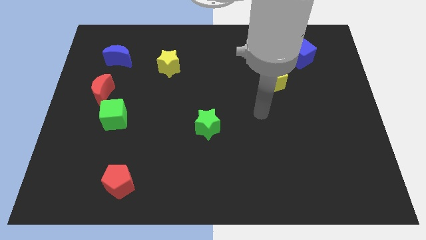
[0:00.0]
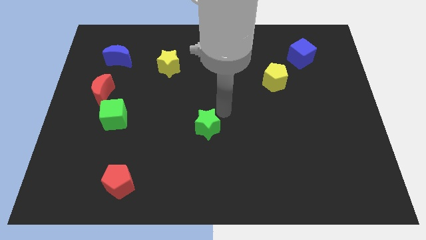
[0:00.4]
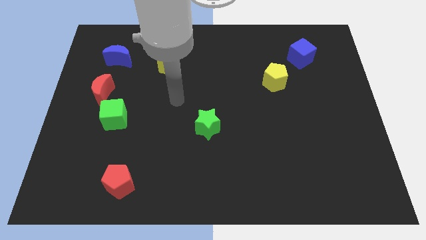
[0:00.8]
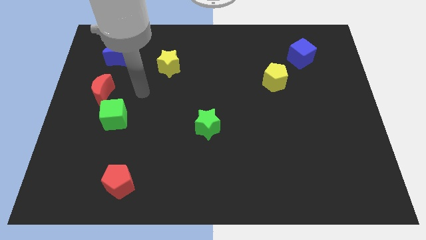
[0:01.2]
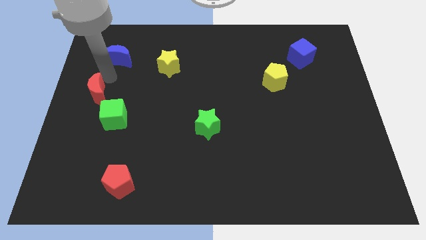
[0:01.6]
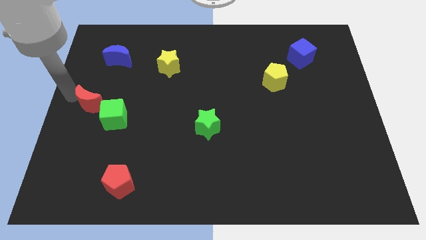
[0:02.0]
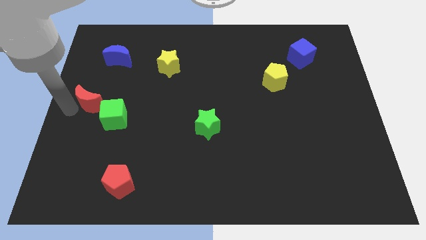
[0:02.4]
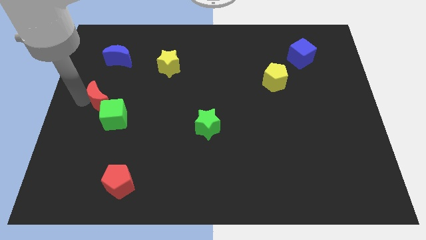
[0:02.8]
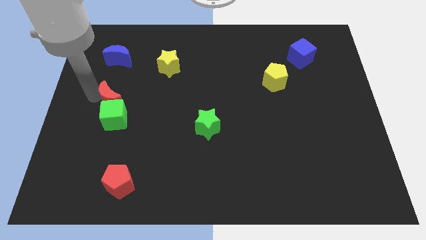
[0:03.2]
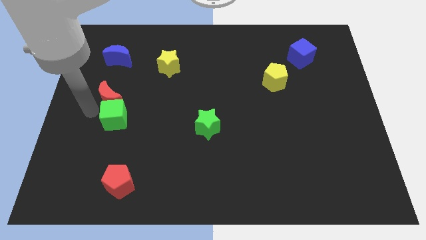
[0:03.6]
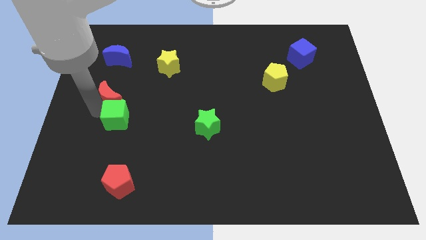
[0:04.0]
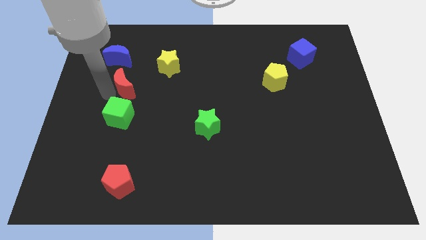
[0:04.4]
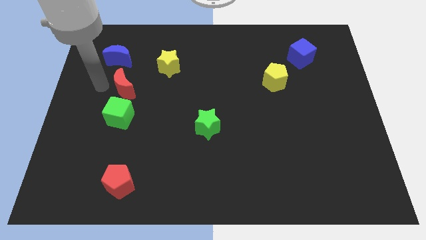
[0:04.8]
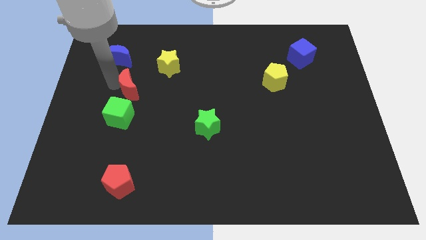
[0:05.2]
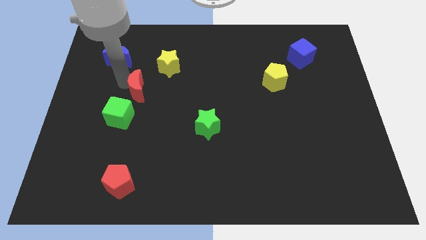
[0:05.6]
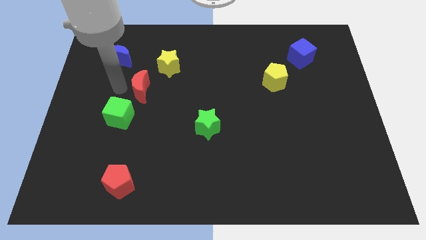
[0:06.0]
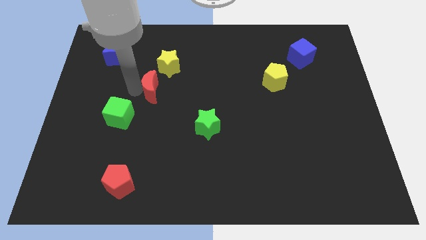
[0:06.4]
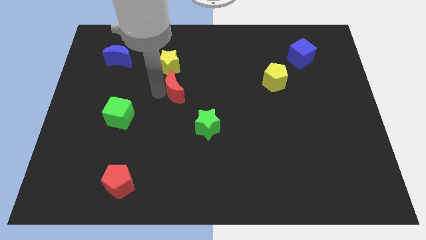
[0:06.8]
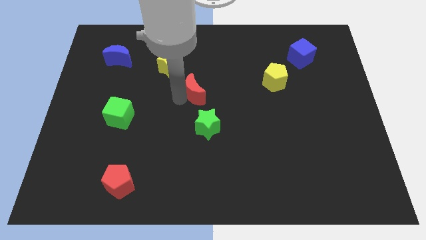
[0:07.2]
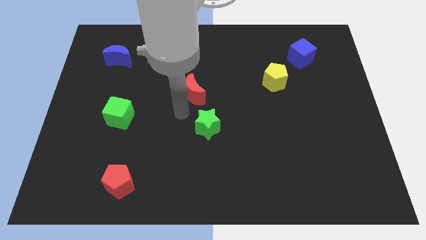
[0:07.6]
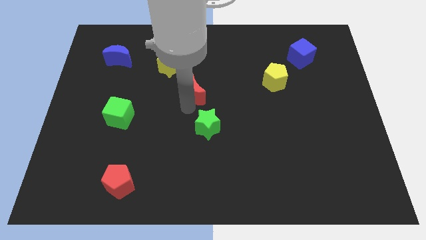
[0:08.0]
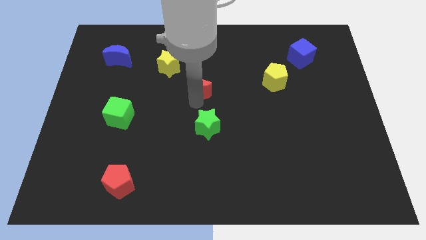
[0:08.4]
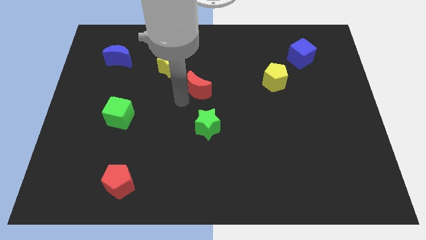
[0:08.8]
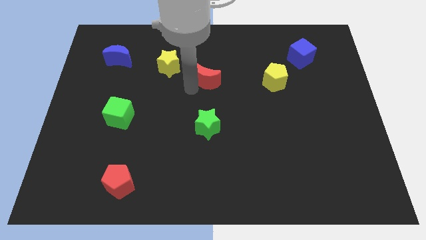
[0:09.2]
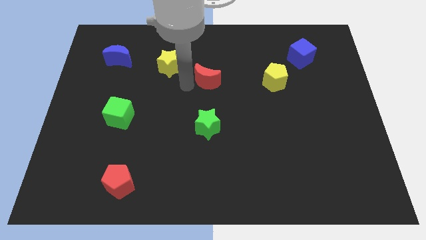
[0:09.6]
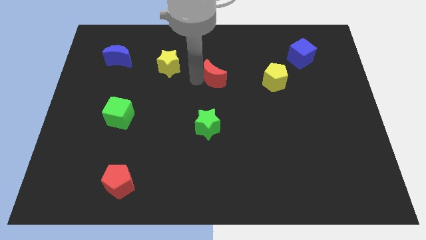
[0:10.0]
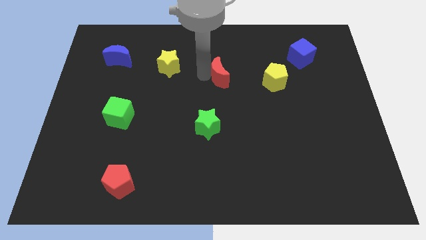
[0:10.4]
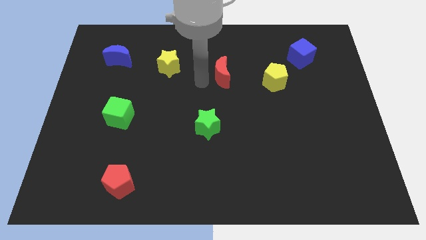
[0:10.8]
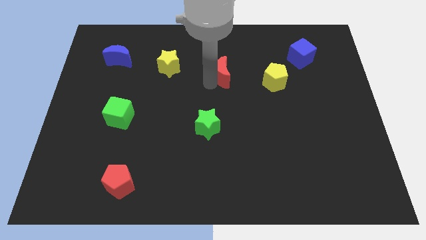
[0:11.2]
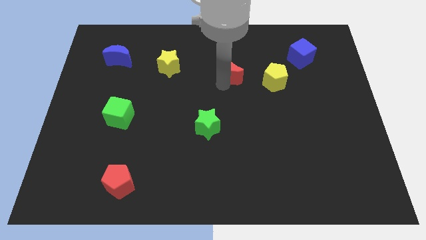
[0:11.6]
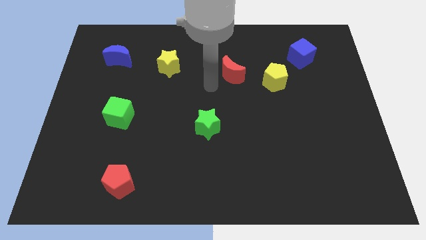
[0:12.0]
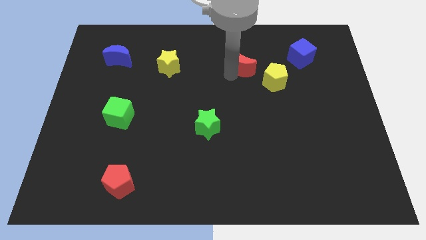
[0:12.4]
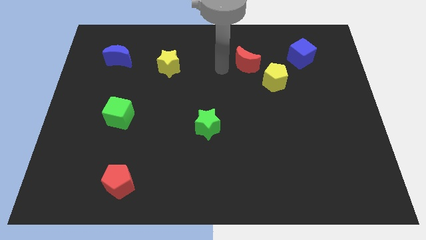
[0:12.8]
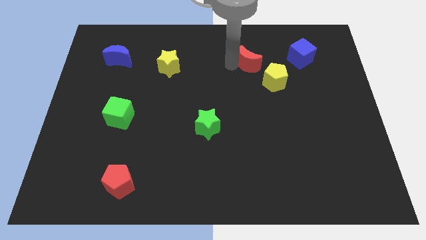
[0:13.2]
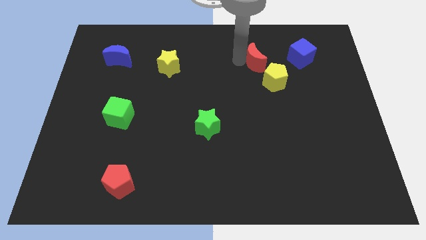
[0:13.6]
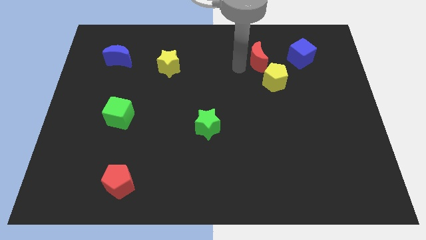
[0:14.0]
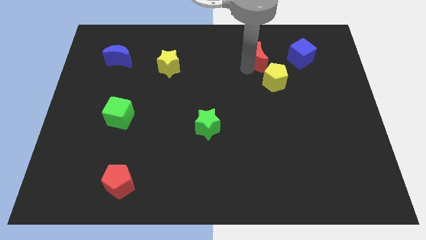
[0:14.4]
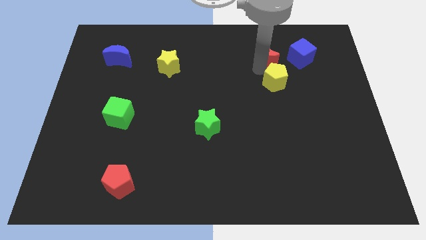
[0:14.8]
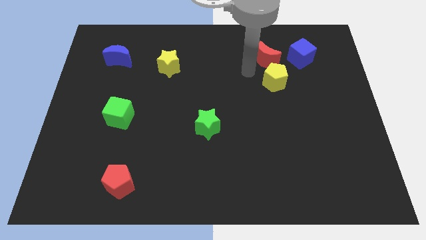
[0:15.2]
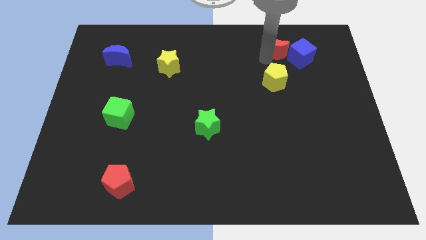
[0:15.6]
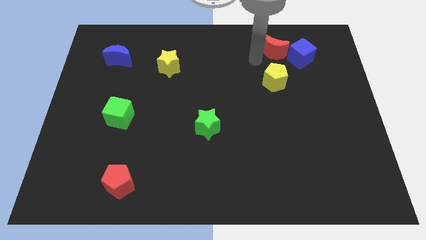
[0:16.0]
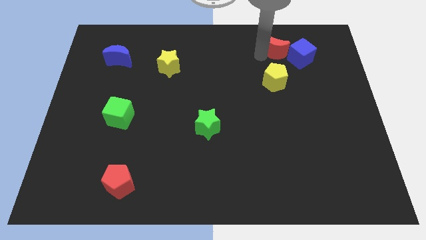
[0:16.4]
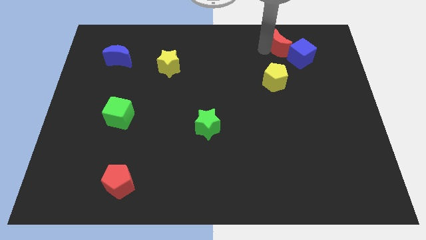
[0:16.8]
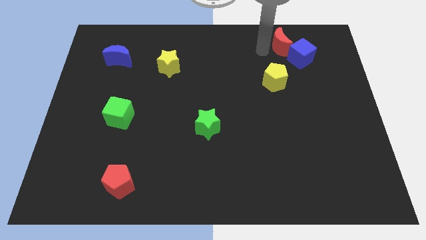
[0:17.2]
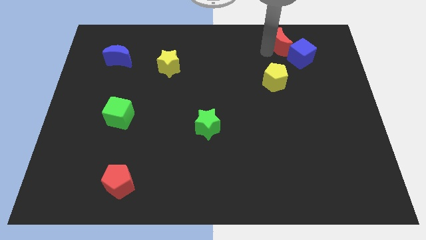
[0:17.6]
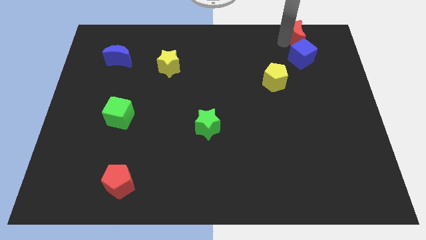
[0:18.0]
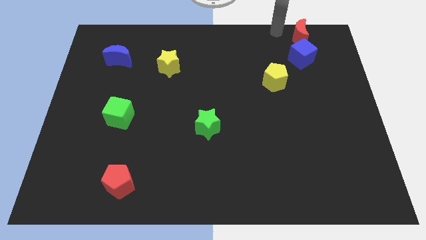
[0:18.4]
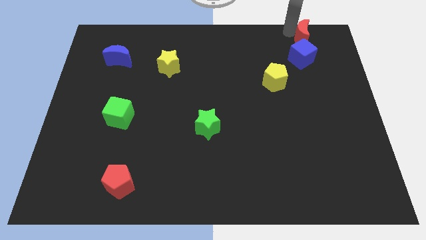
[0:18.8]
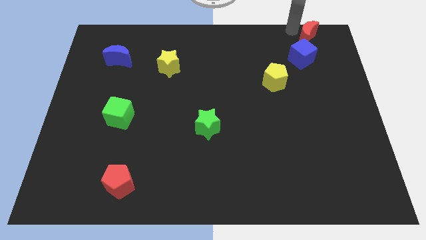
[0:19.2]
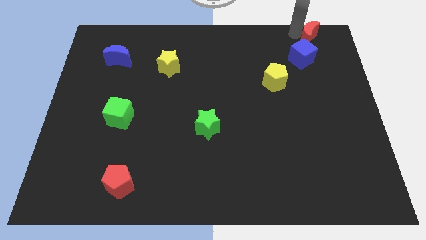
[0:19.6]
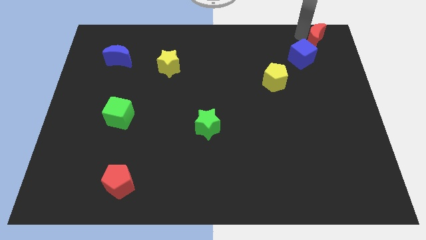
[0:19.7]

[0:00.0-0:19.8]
push the red moon to the top right corner

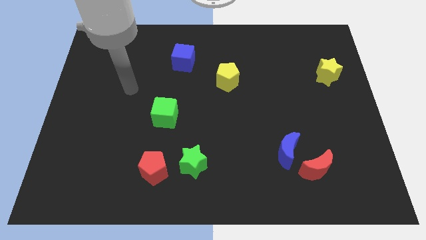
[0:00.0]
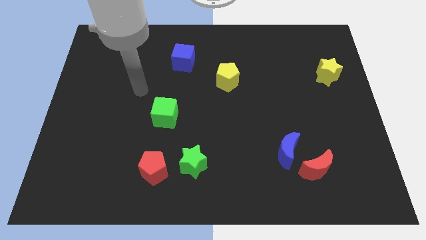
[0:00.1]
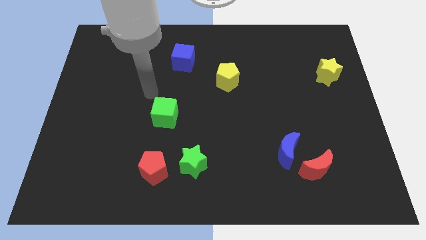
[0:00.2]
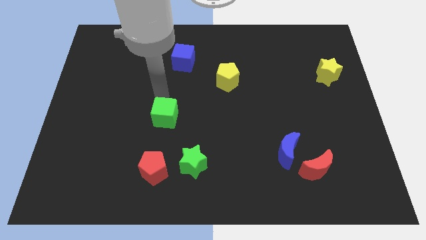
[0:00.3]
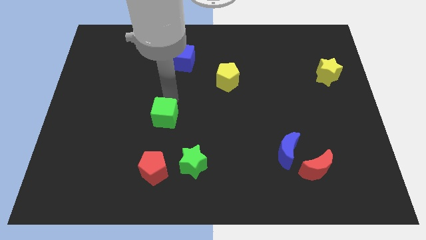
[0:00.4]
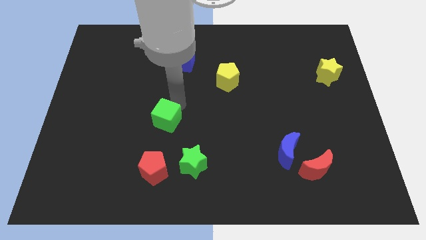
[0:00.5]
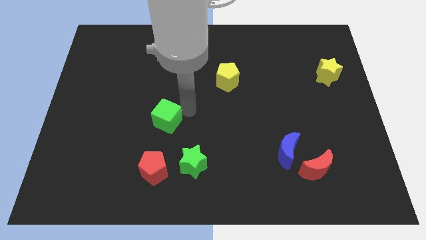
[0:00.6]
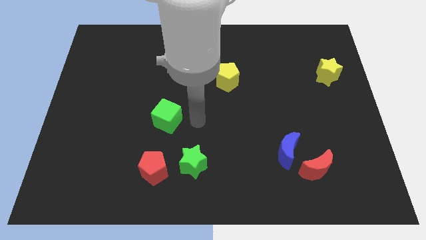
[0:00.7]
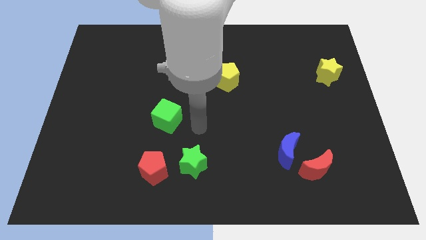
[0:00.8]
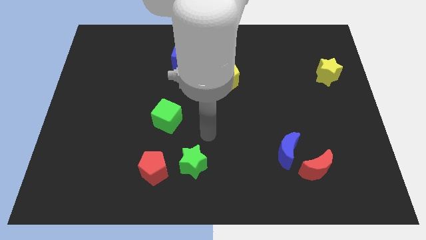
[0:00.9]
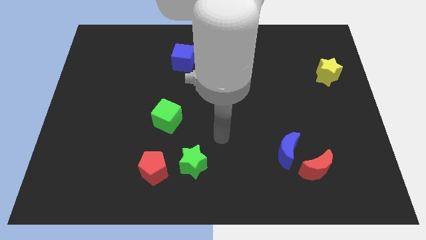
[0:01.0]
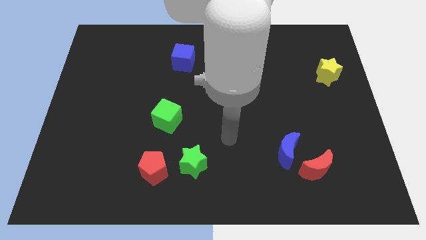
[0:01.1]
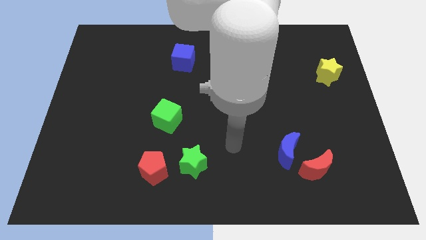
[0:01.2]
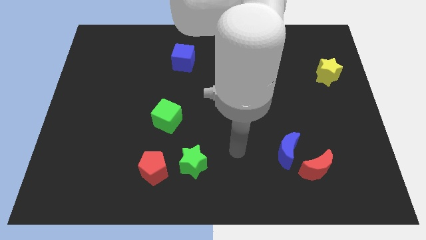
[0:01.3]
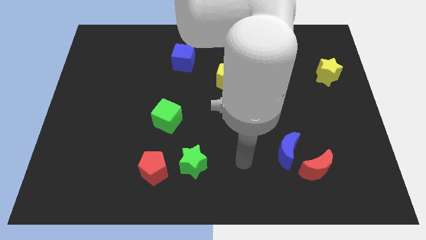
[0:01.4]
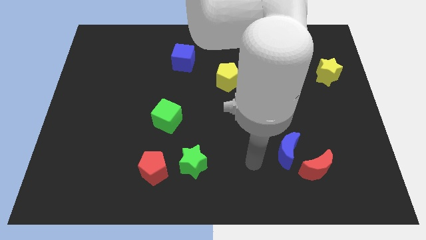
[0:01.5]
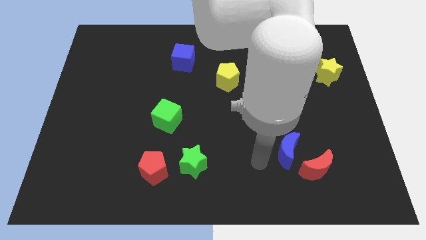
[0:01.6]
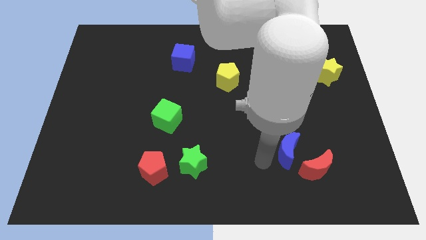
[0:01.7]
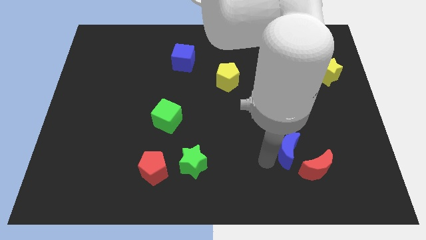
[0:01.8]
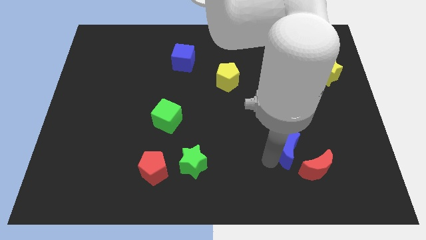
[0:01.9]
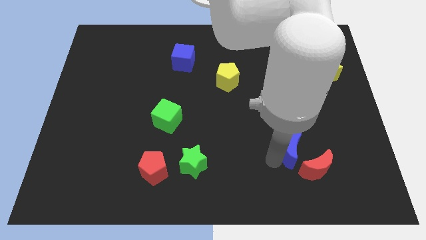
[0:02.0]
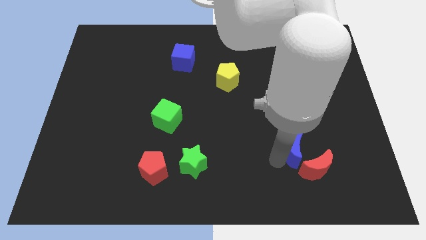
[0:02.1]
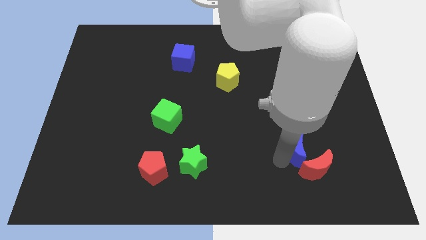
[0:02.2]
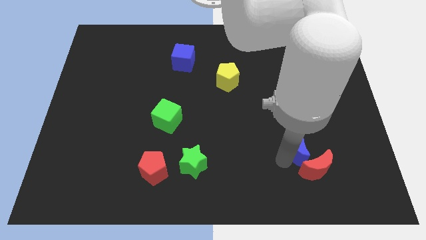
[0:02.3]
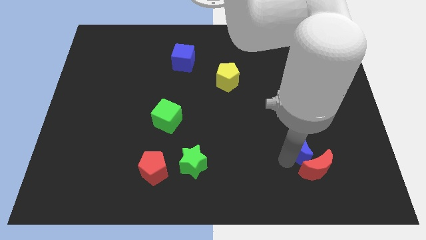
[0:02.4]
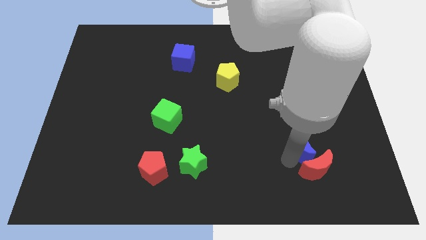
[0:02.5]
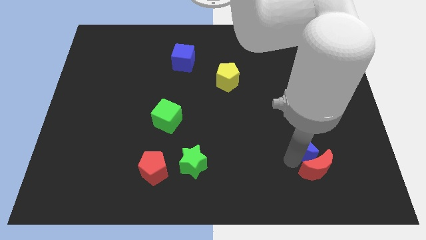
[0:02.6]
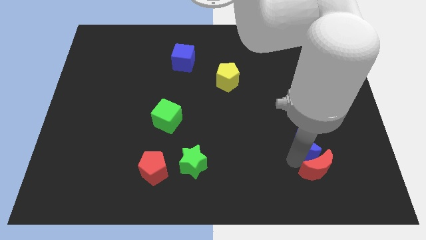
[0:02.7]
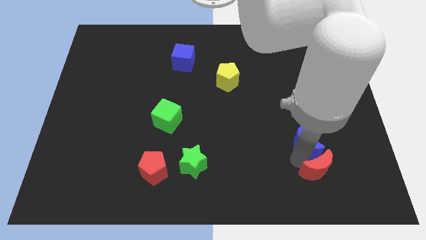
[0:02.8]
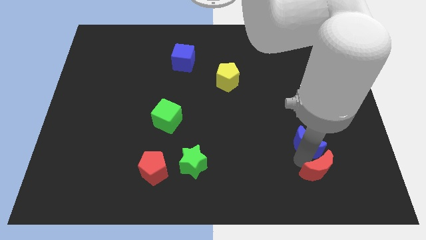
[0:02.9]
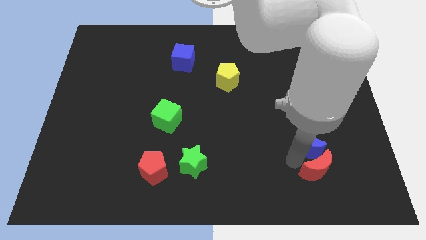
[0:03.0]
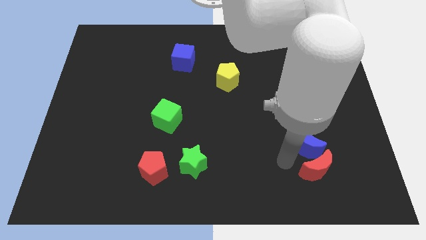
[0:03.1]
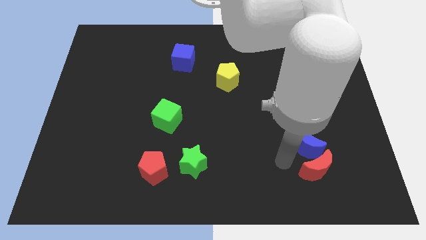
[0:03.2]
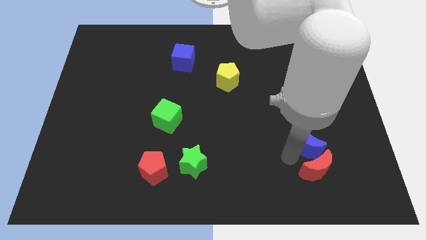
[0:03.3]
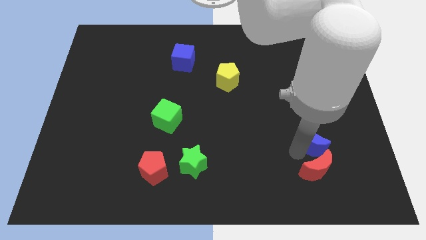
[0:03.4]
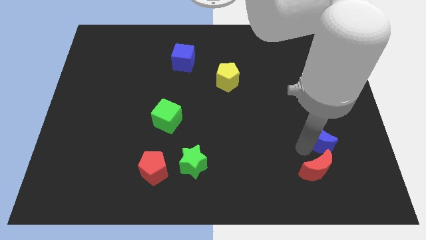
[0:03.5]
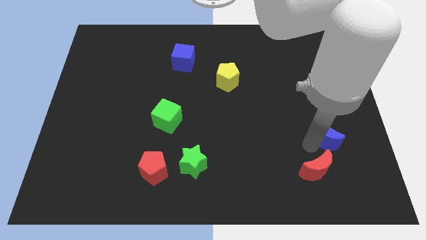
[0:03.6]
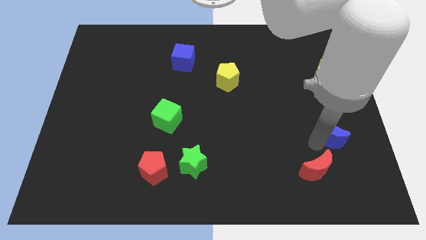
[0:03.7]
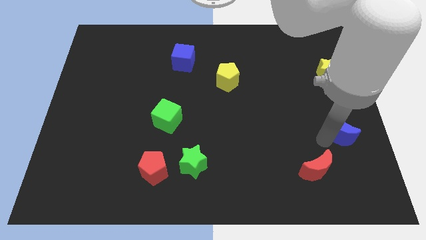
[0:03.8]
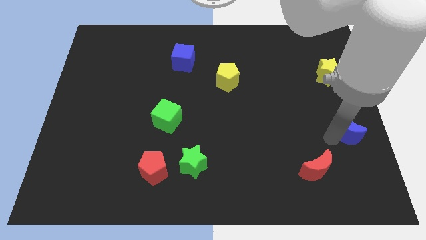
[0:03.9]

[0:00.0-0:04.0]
put the blue moon to the right side of the board
